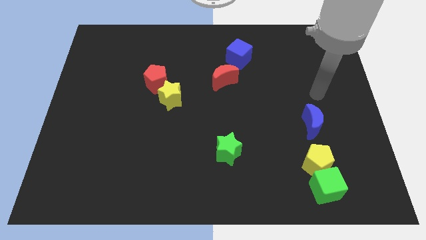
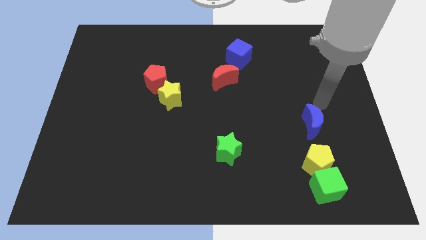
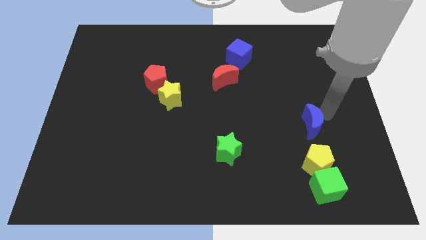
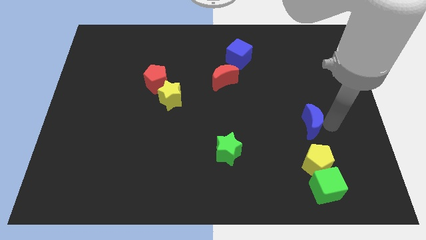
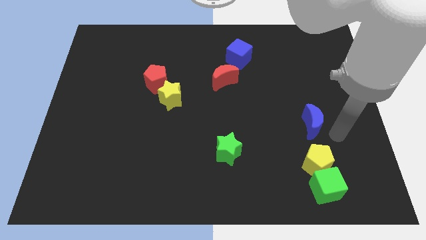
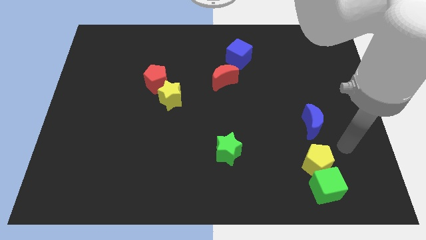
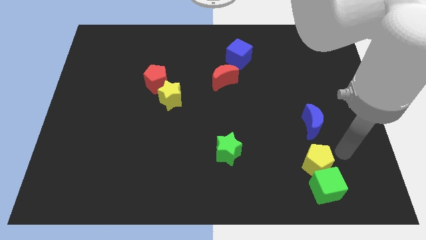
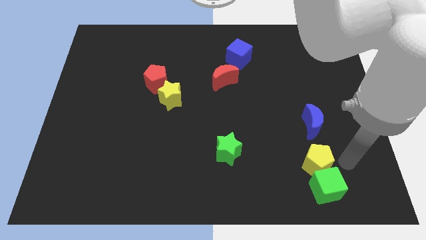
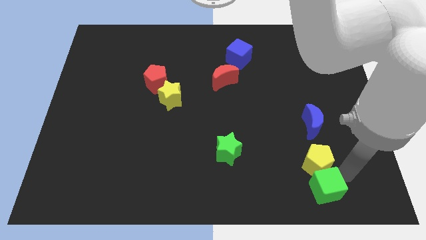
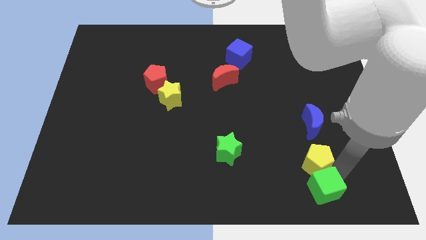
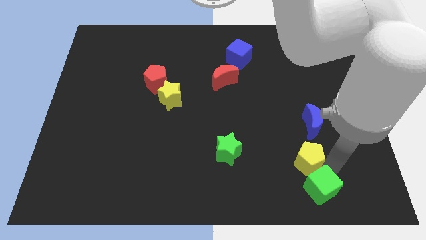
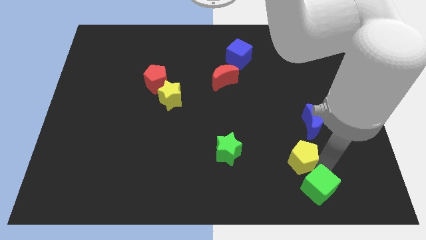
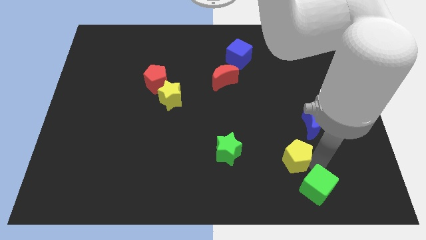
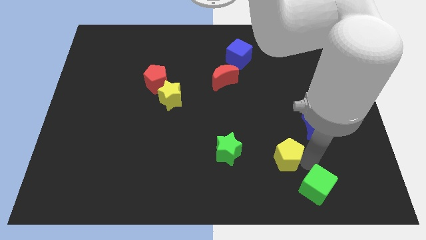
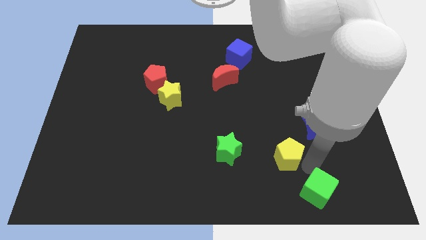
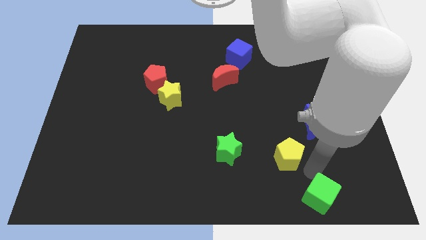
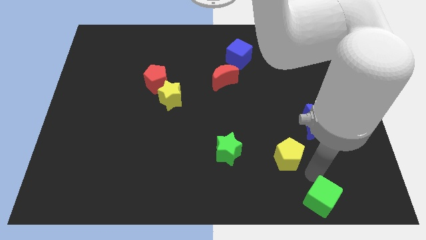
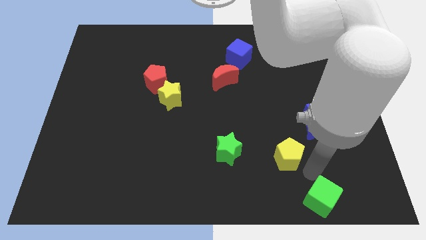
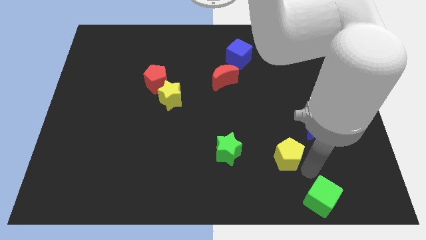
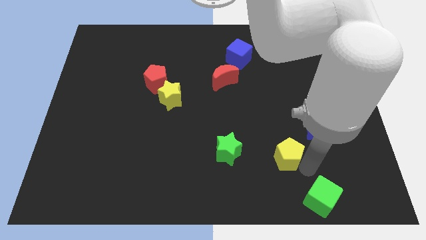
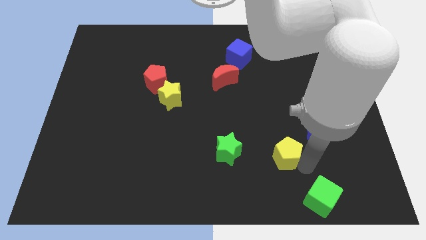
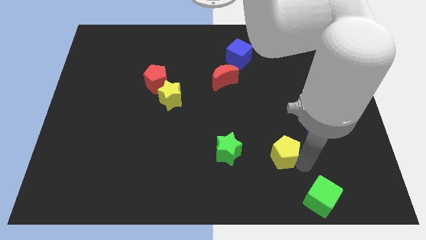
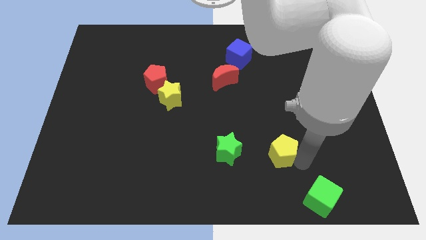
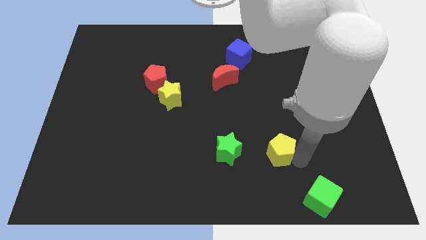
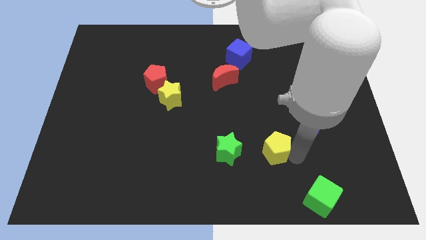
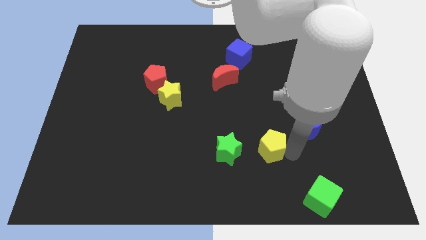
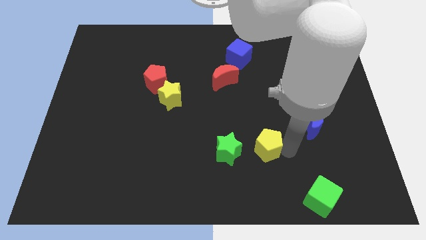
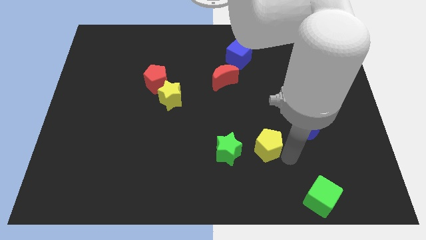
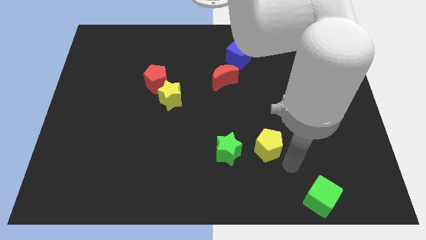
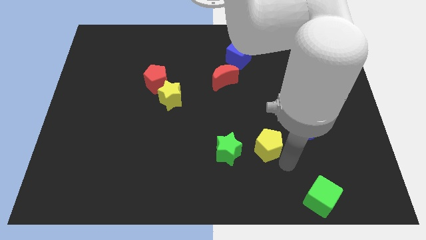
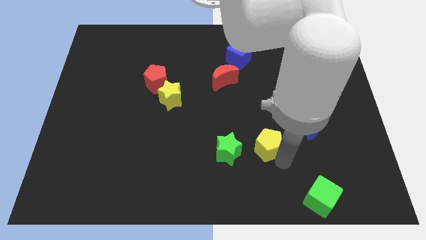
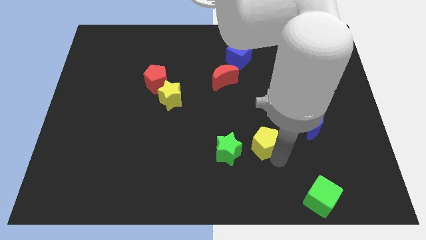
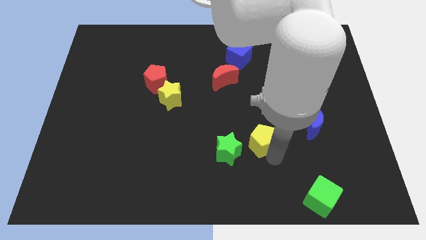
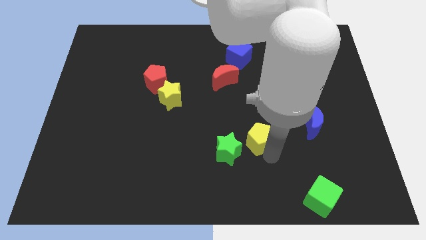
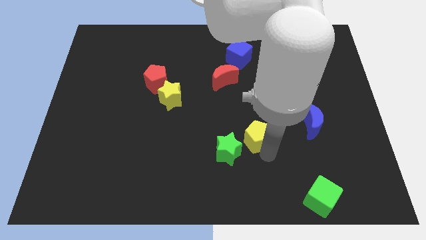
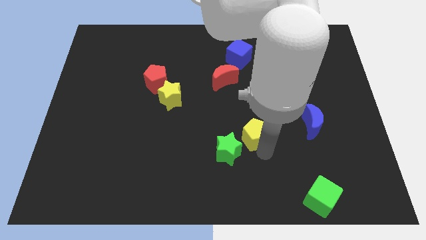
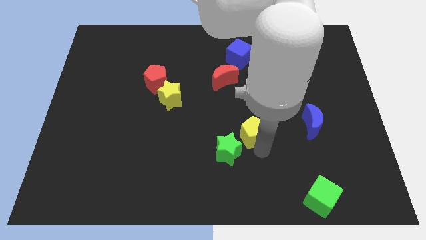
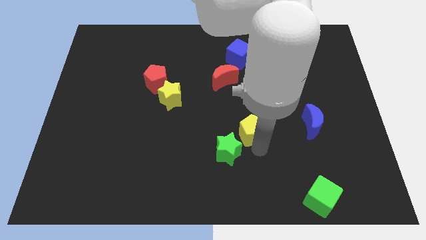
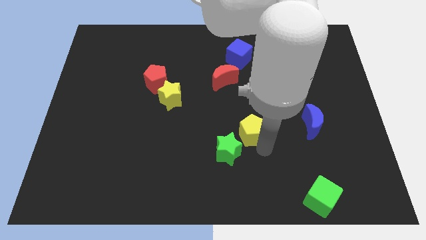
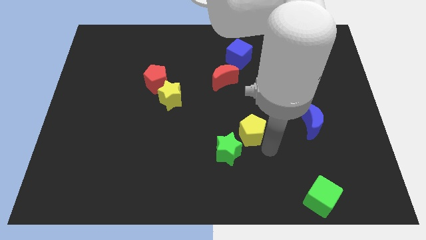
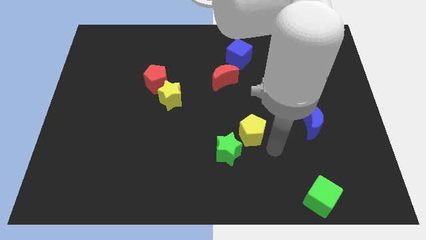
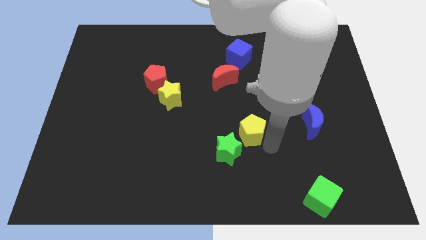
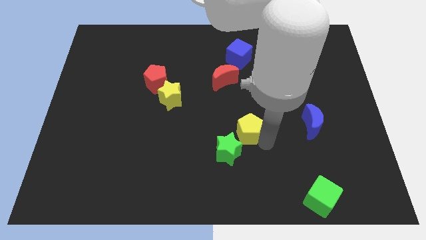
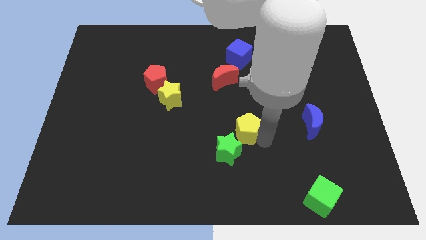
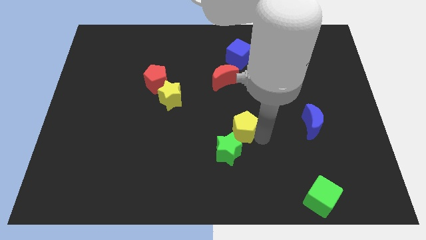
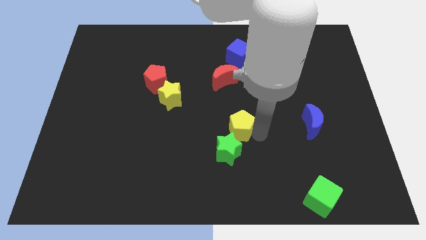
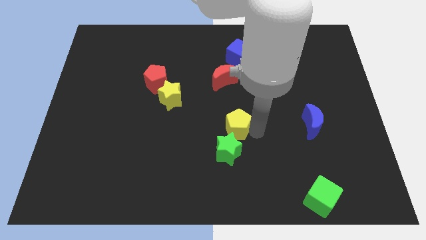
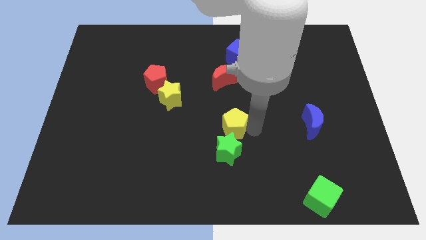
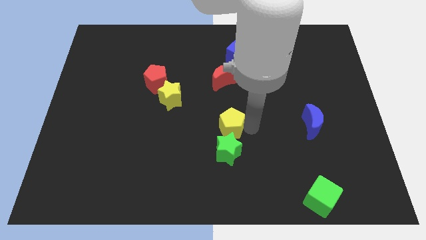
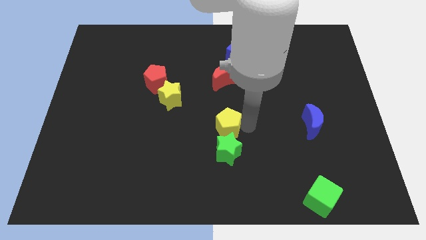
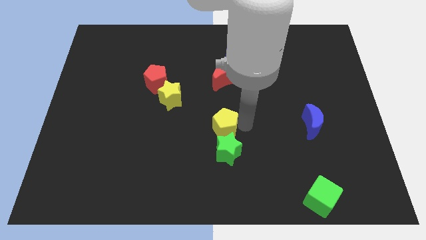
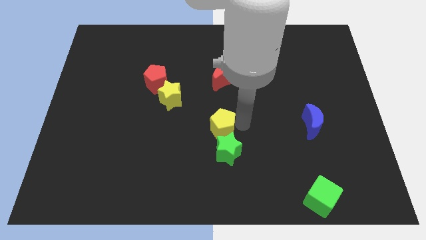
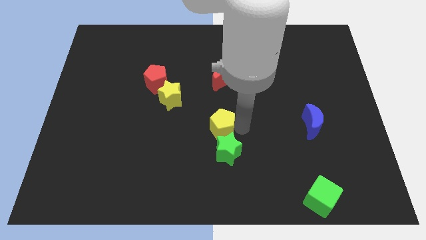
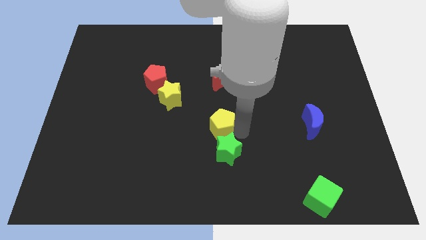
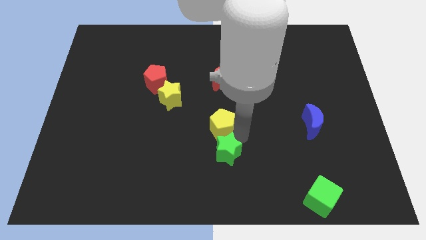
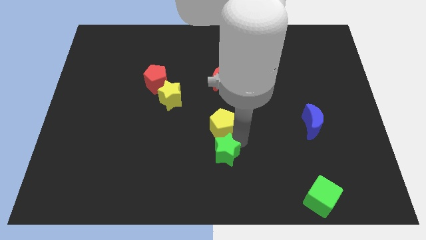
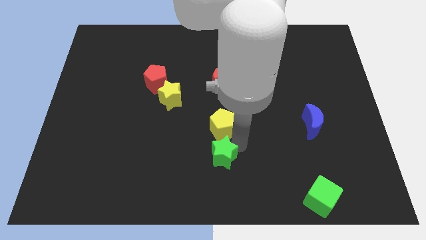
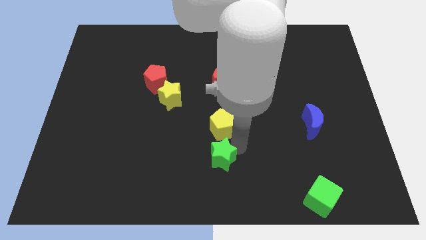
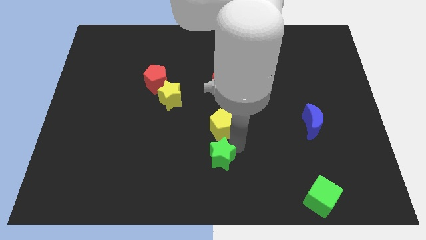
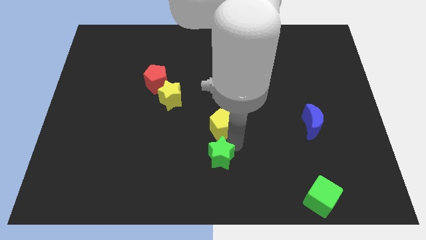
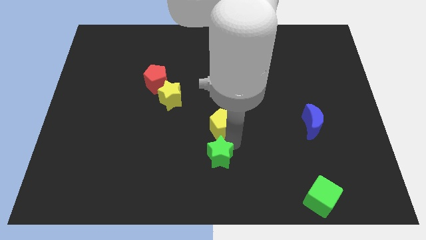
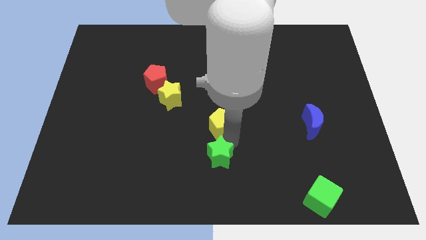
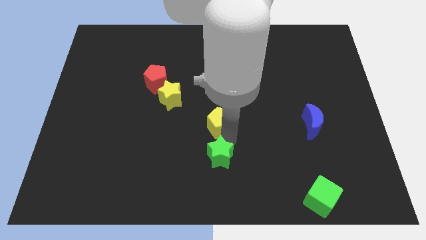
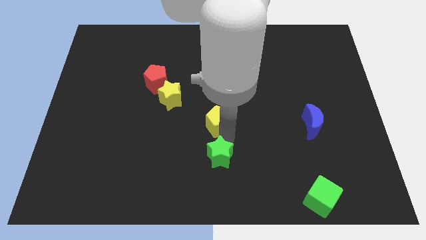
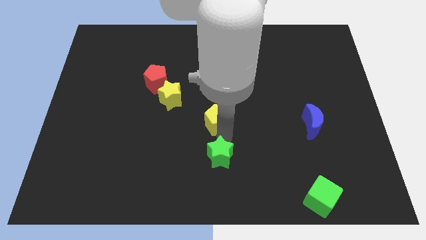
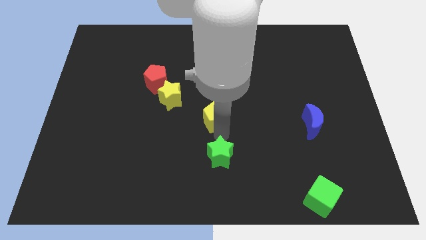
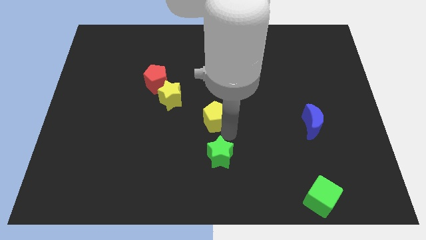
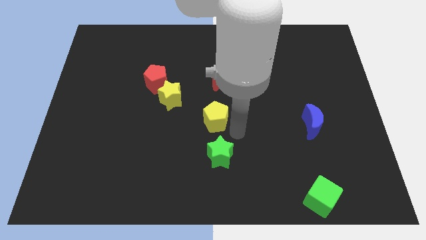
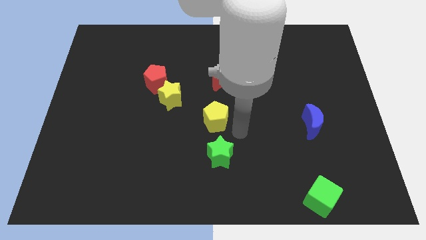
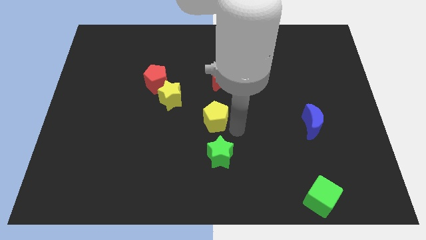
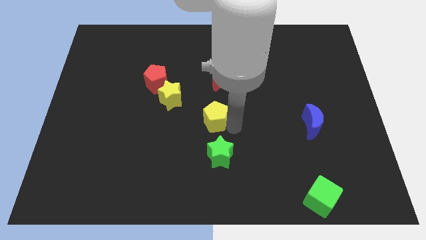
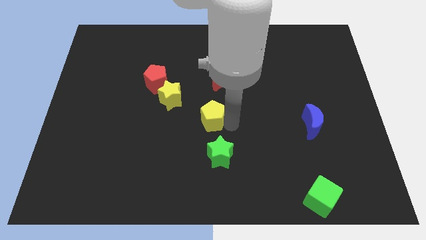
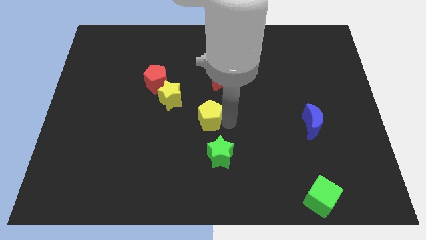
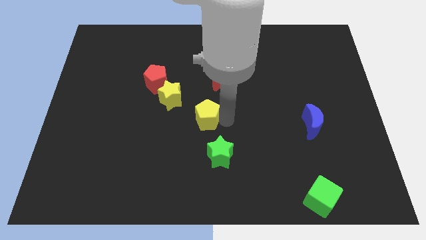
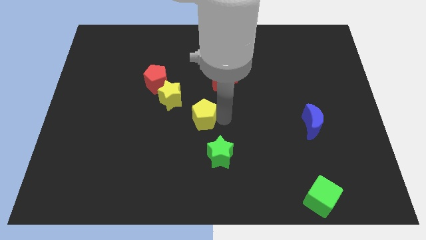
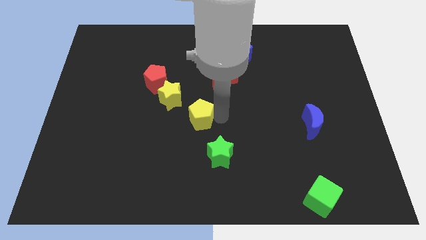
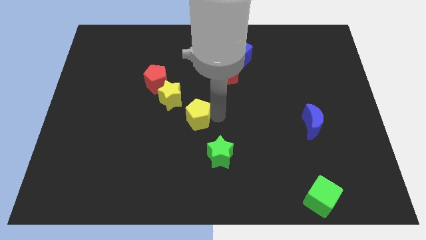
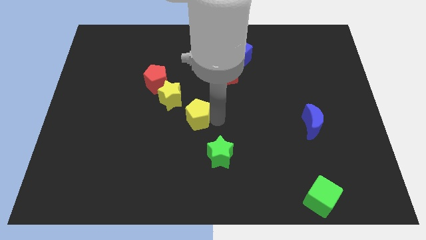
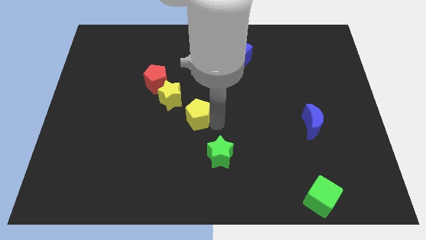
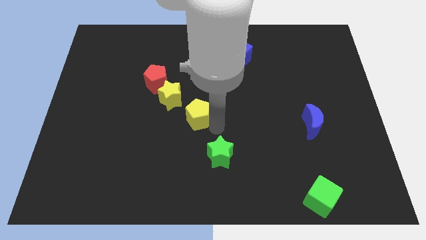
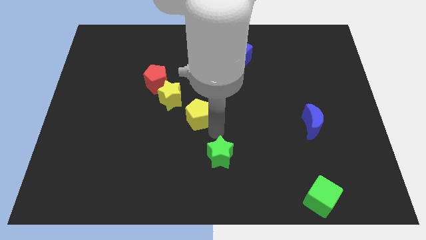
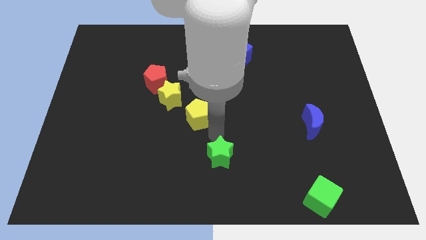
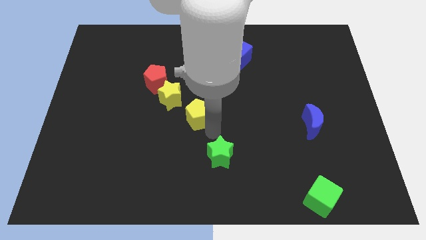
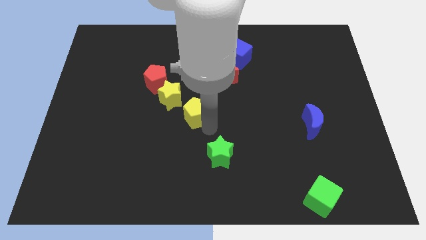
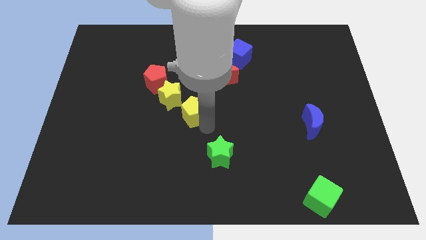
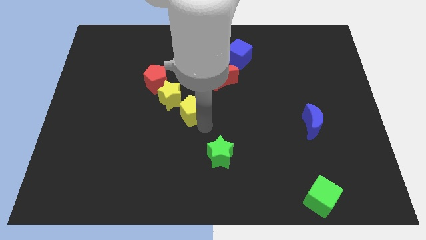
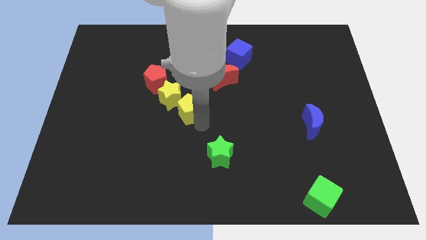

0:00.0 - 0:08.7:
move the yellow pentagon next to the yellow star
